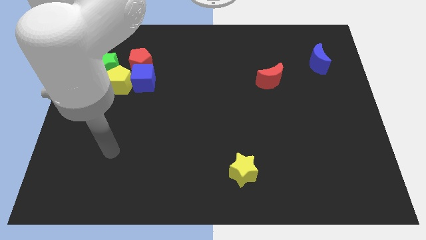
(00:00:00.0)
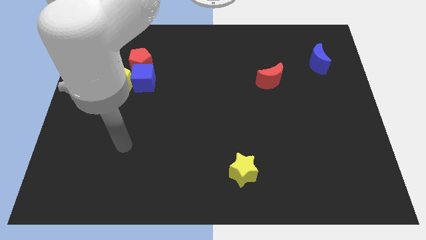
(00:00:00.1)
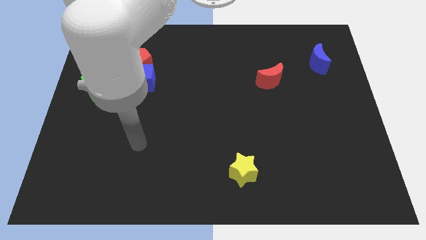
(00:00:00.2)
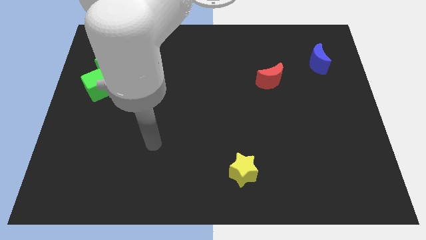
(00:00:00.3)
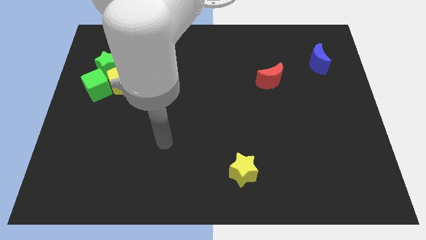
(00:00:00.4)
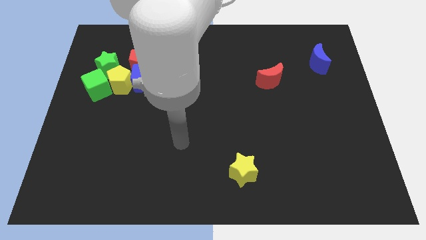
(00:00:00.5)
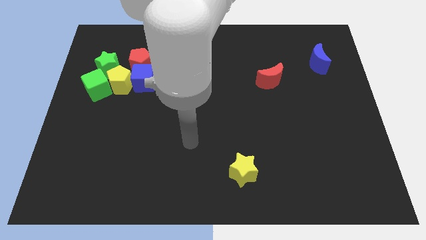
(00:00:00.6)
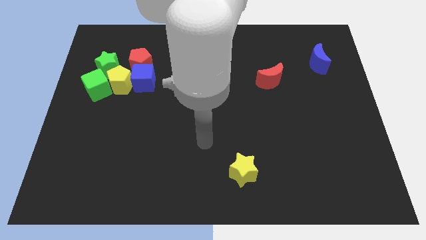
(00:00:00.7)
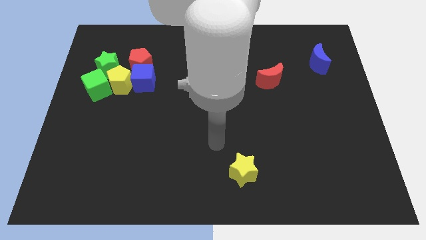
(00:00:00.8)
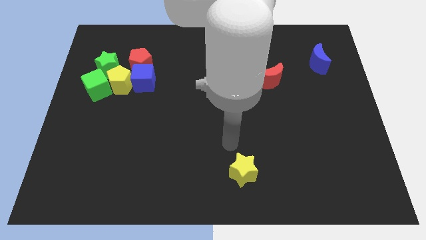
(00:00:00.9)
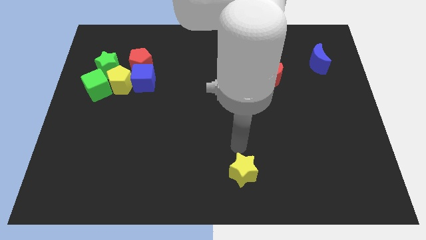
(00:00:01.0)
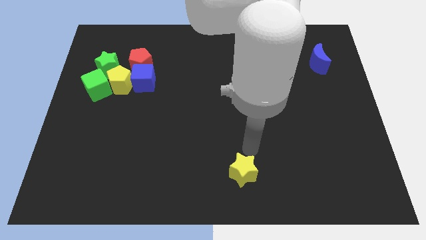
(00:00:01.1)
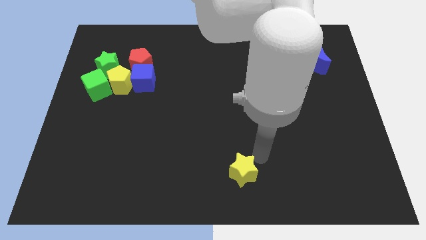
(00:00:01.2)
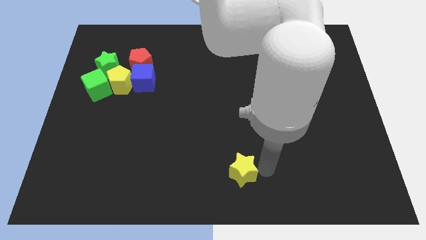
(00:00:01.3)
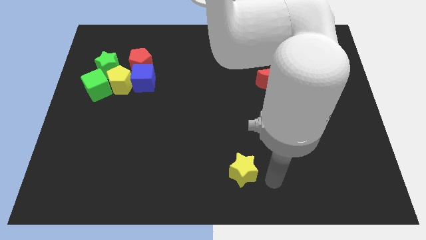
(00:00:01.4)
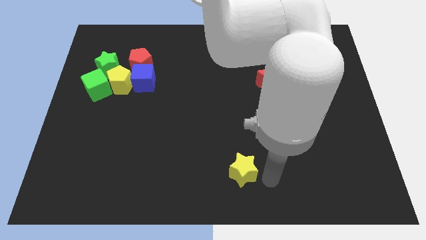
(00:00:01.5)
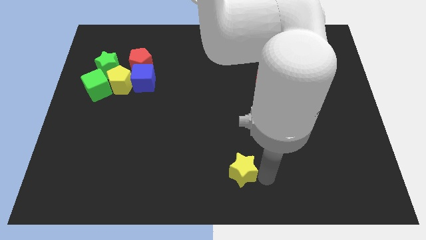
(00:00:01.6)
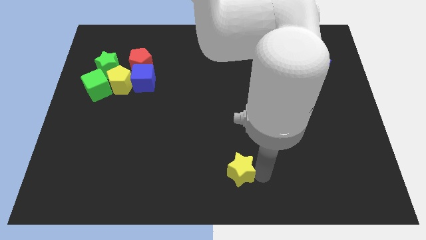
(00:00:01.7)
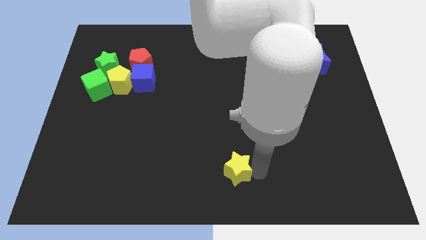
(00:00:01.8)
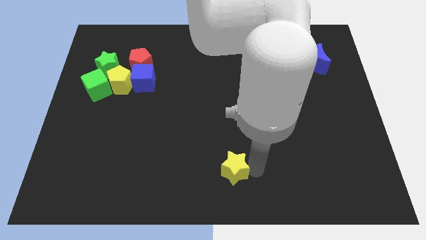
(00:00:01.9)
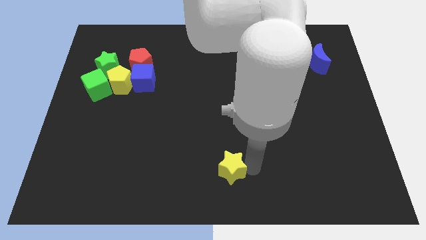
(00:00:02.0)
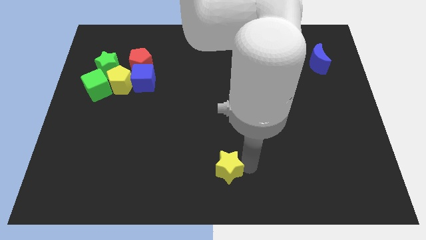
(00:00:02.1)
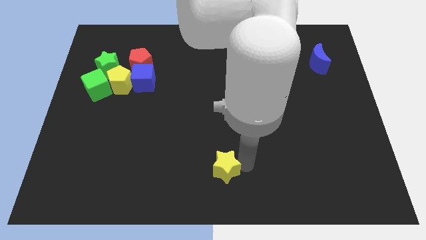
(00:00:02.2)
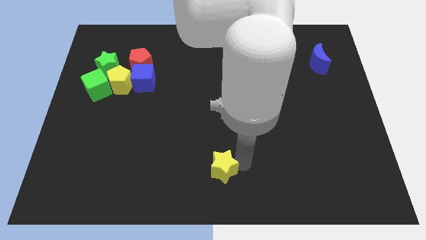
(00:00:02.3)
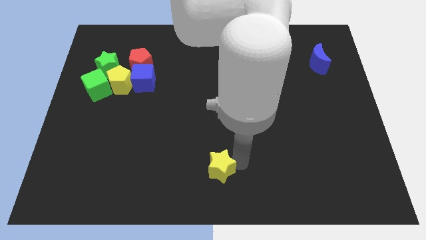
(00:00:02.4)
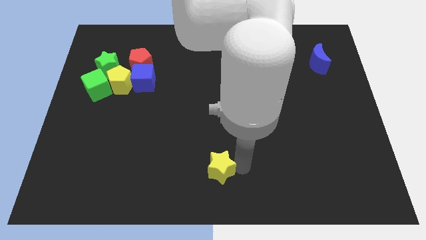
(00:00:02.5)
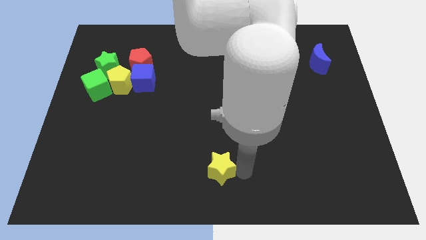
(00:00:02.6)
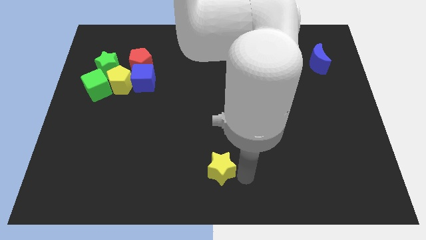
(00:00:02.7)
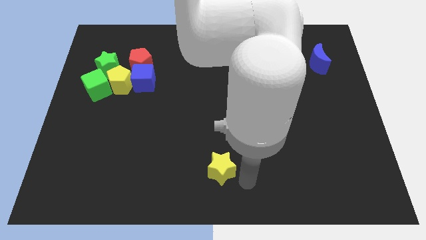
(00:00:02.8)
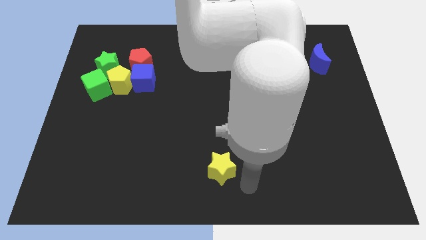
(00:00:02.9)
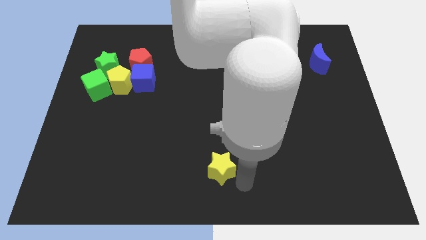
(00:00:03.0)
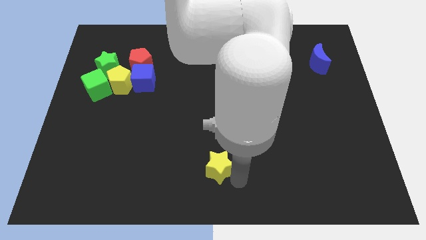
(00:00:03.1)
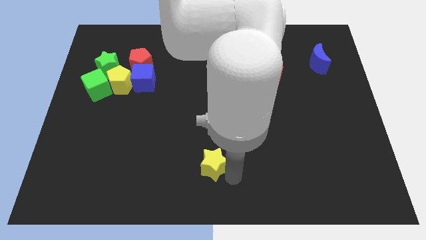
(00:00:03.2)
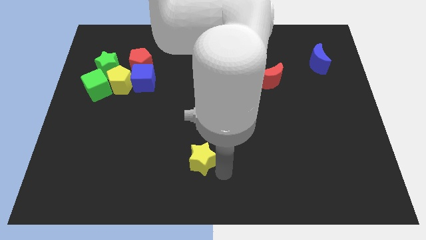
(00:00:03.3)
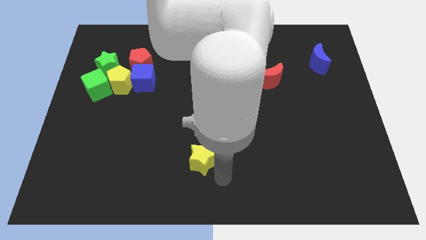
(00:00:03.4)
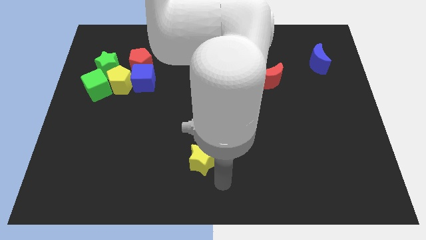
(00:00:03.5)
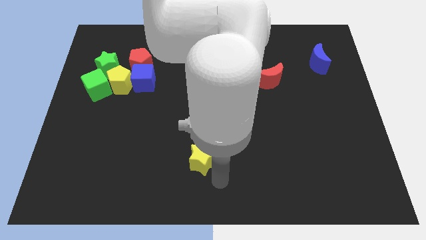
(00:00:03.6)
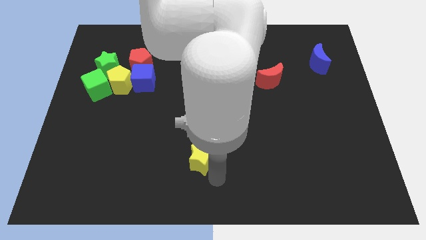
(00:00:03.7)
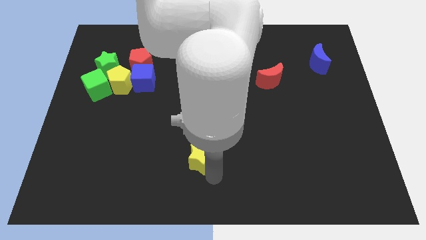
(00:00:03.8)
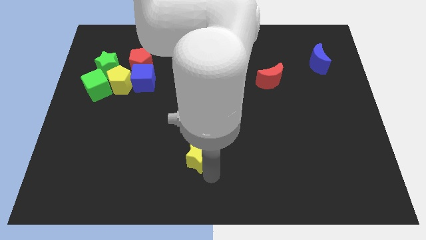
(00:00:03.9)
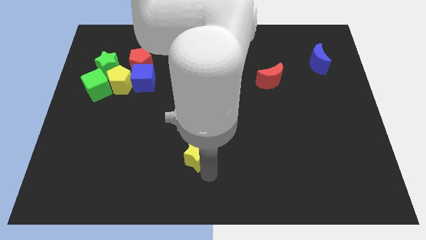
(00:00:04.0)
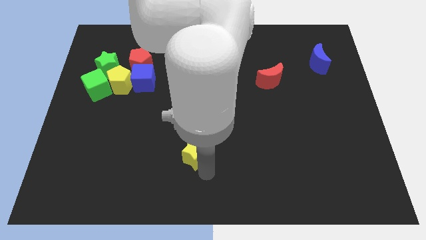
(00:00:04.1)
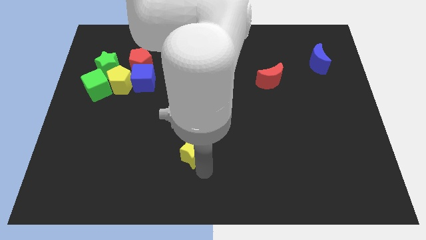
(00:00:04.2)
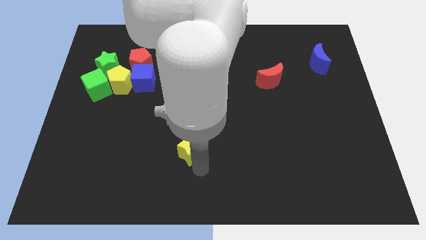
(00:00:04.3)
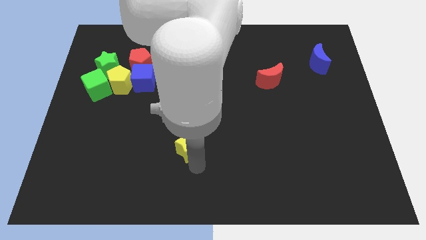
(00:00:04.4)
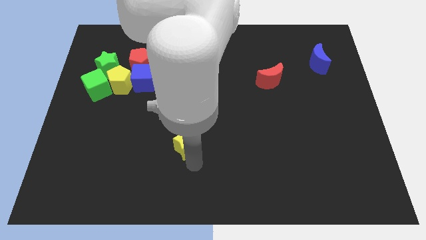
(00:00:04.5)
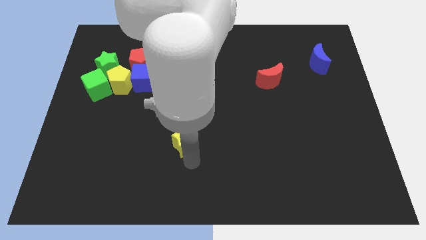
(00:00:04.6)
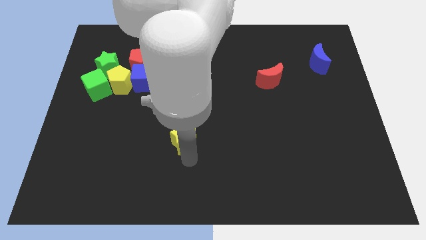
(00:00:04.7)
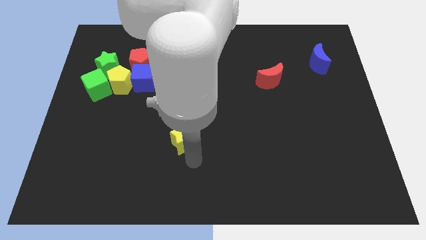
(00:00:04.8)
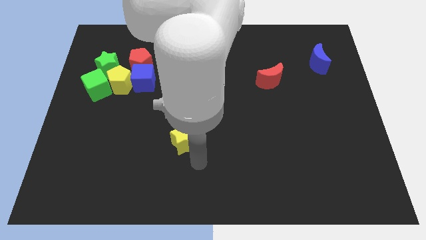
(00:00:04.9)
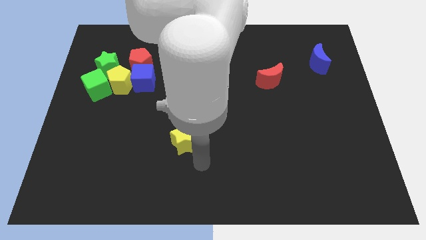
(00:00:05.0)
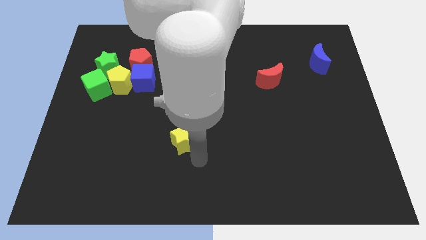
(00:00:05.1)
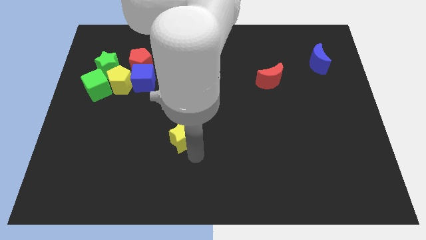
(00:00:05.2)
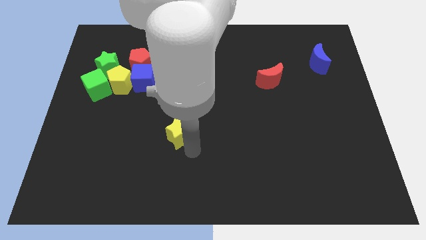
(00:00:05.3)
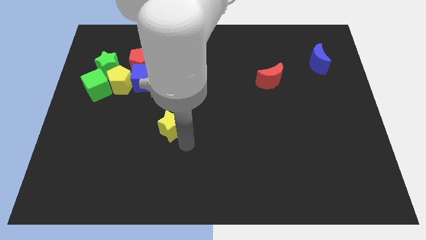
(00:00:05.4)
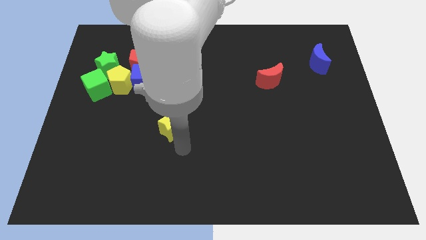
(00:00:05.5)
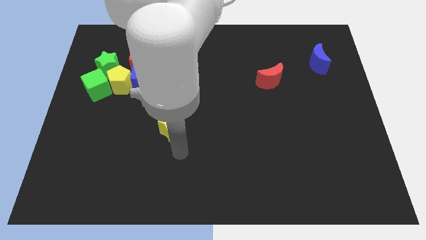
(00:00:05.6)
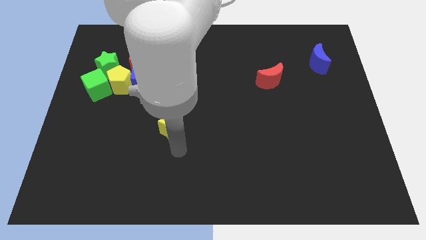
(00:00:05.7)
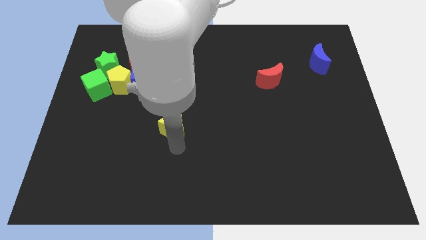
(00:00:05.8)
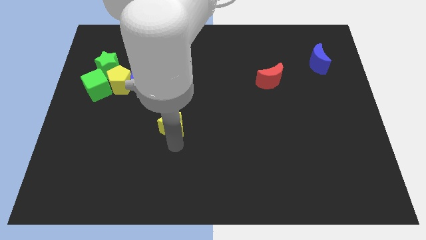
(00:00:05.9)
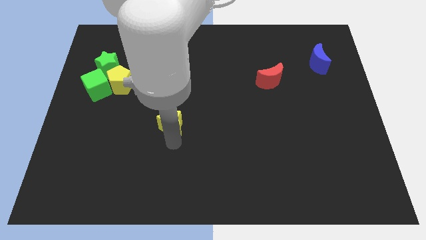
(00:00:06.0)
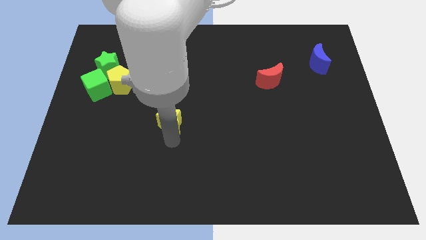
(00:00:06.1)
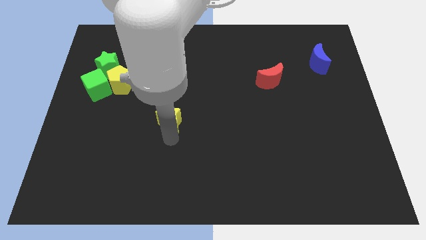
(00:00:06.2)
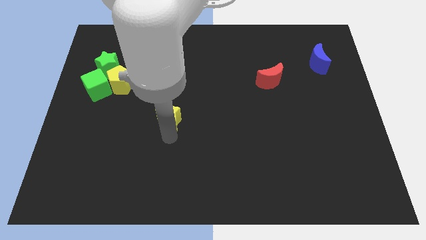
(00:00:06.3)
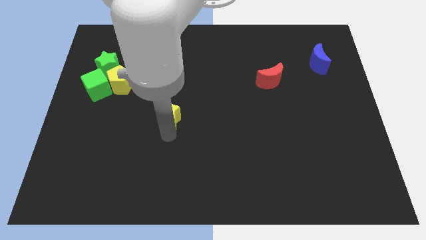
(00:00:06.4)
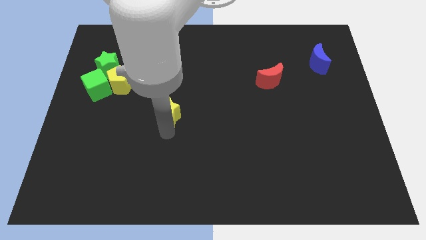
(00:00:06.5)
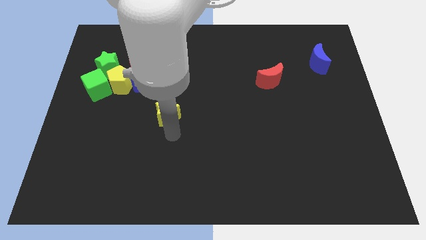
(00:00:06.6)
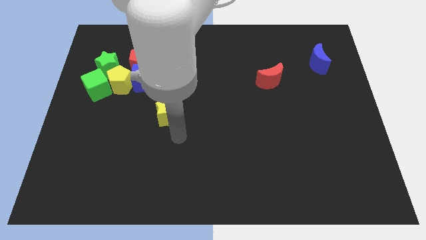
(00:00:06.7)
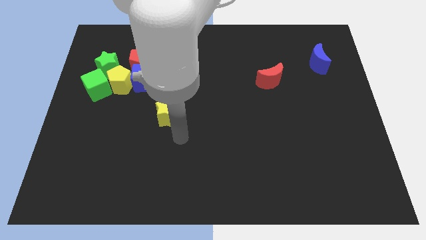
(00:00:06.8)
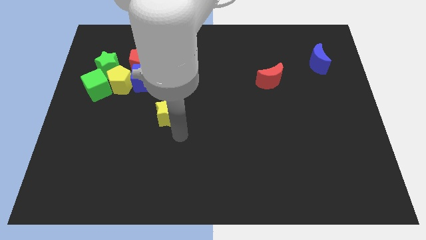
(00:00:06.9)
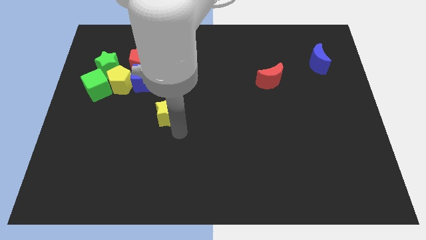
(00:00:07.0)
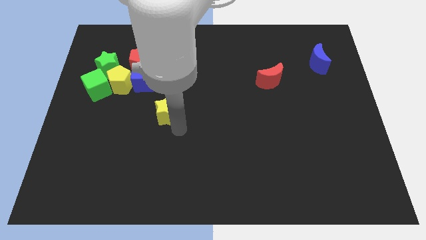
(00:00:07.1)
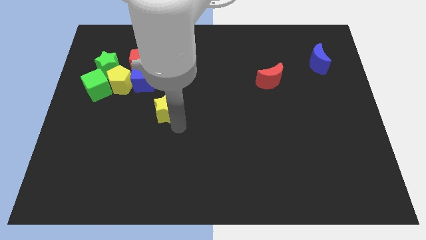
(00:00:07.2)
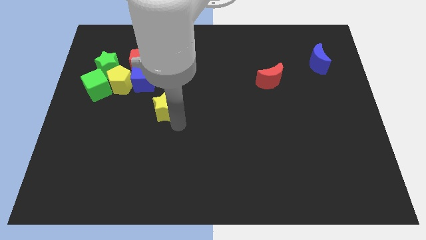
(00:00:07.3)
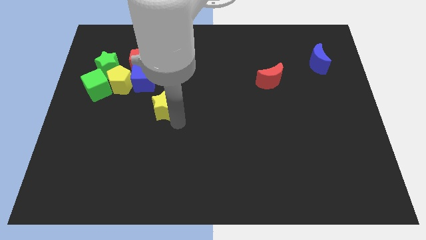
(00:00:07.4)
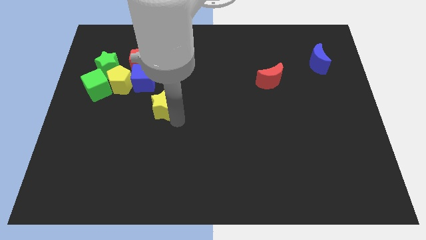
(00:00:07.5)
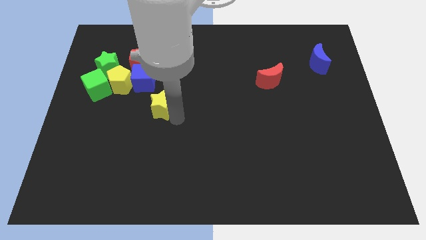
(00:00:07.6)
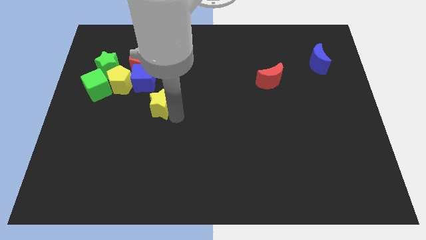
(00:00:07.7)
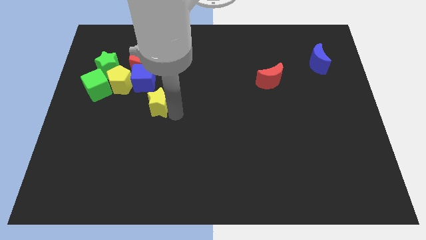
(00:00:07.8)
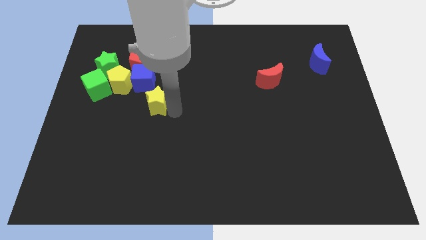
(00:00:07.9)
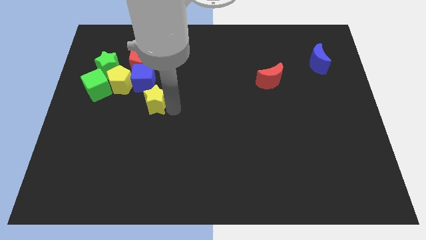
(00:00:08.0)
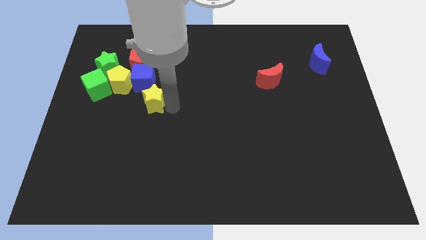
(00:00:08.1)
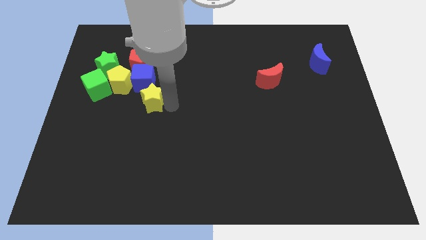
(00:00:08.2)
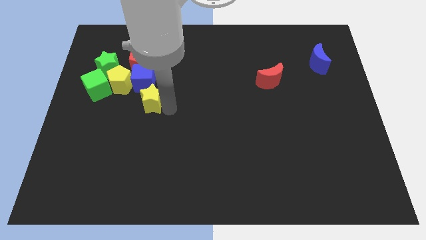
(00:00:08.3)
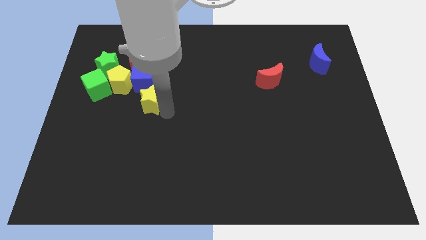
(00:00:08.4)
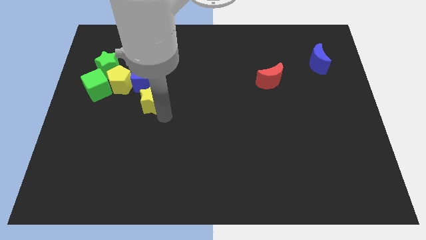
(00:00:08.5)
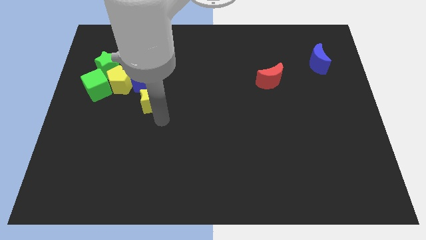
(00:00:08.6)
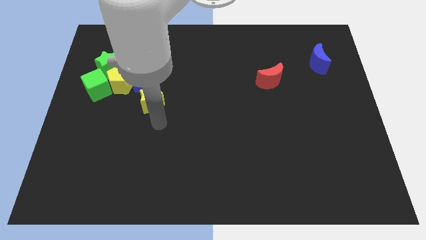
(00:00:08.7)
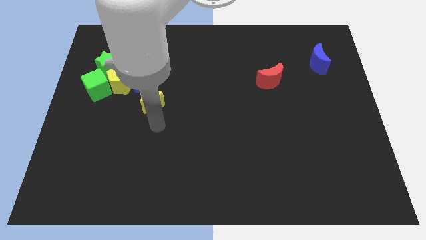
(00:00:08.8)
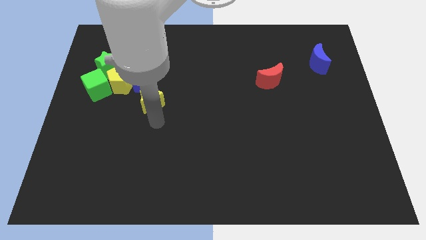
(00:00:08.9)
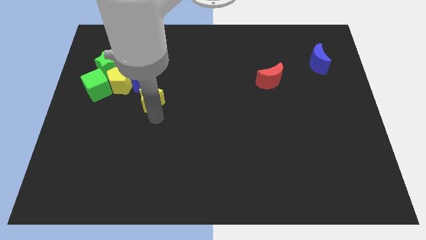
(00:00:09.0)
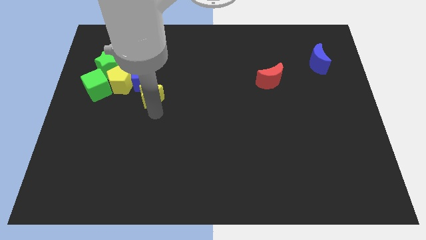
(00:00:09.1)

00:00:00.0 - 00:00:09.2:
move the yellow star towards the blue cube
